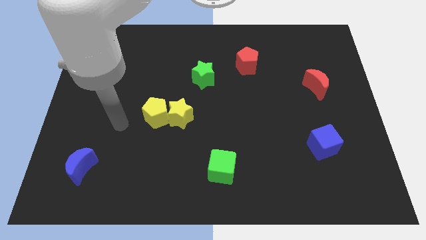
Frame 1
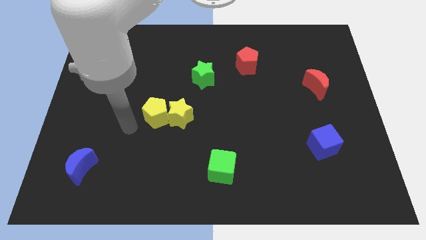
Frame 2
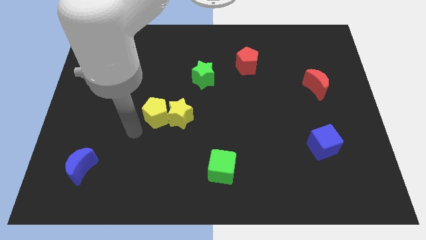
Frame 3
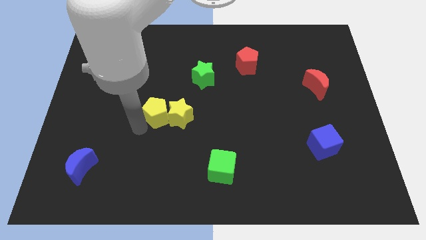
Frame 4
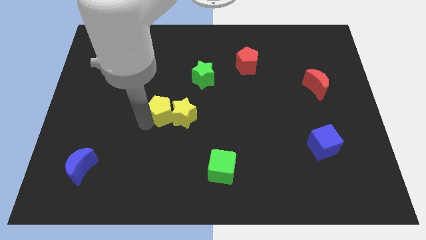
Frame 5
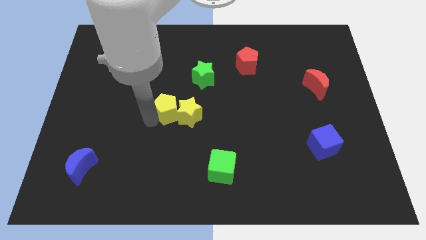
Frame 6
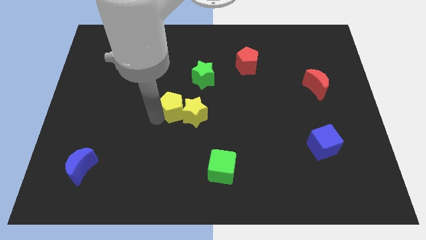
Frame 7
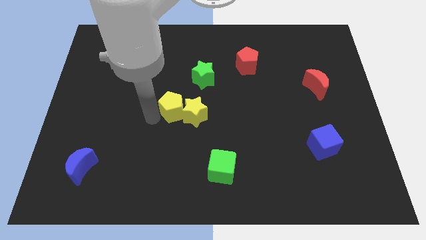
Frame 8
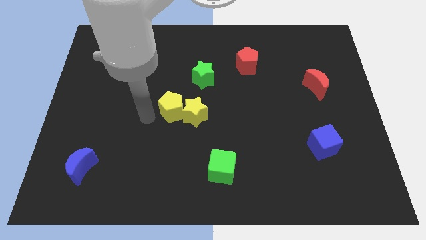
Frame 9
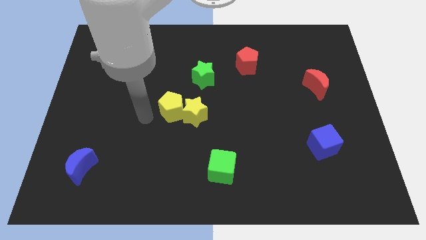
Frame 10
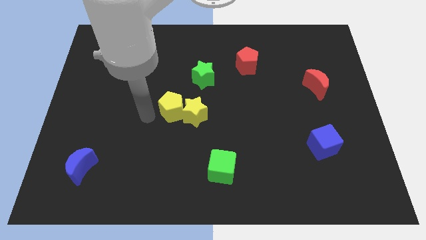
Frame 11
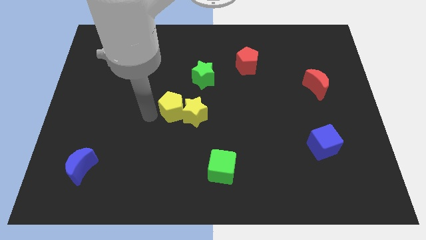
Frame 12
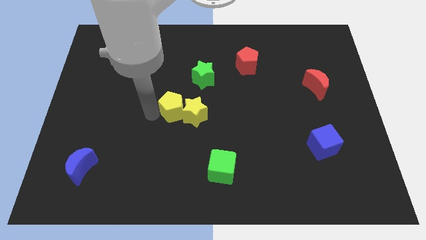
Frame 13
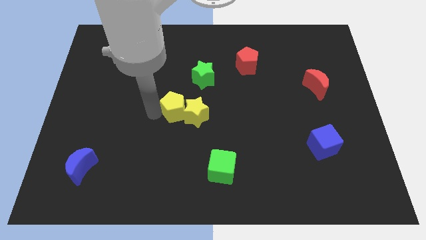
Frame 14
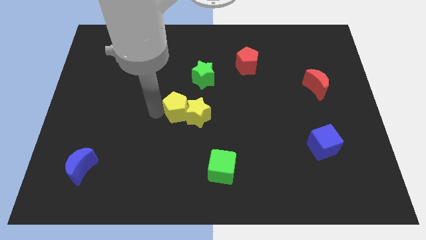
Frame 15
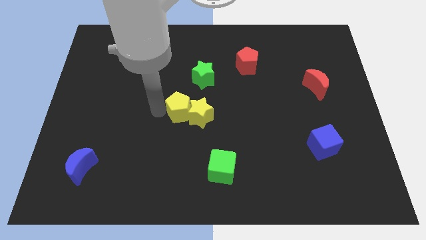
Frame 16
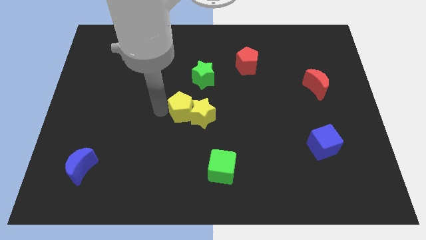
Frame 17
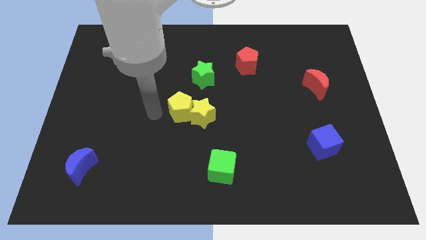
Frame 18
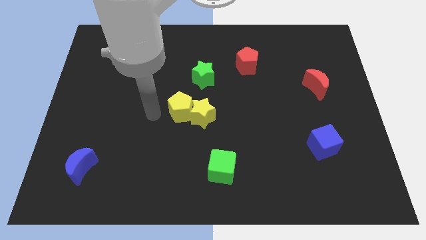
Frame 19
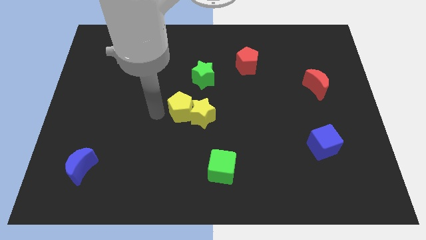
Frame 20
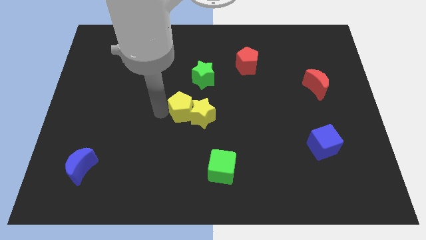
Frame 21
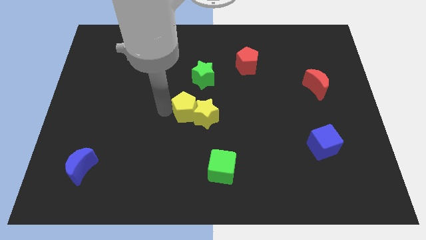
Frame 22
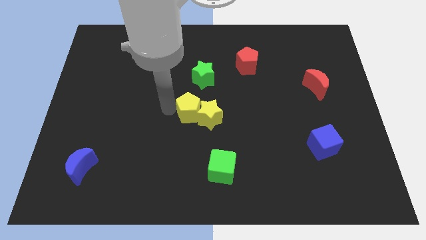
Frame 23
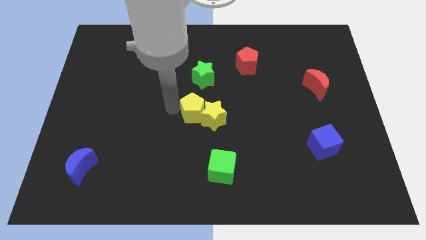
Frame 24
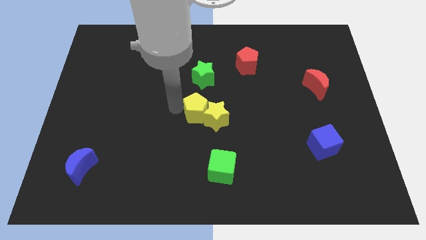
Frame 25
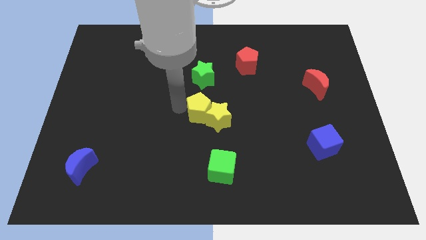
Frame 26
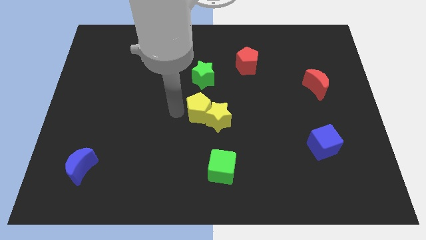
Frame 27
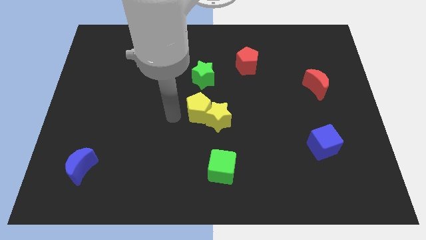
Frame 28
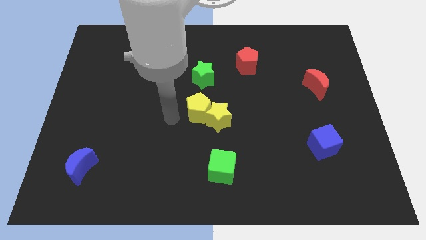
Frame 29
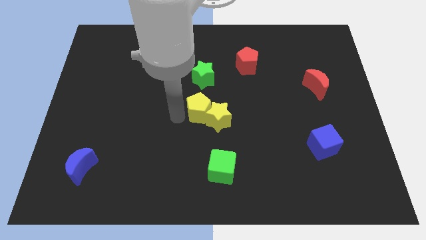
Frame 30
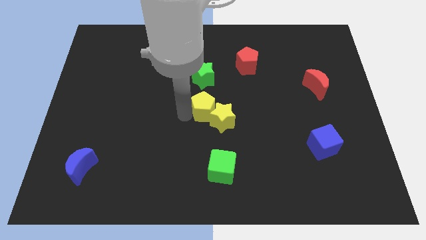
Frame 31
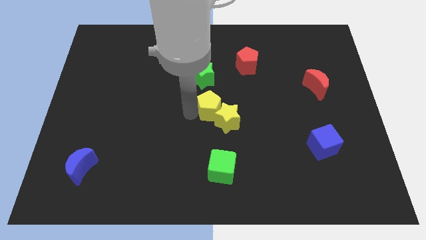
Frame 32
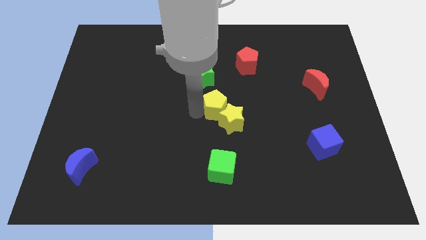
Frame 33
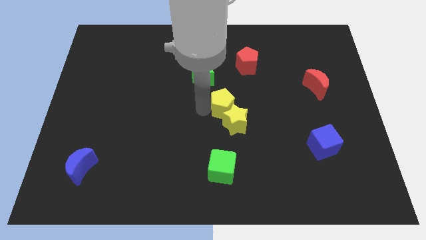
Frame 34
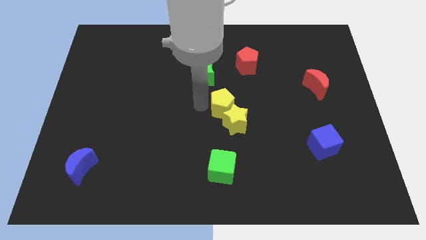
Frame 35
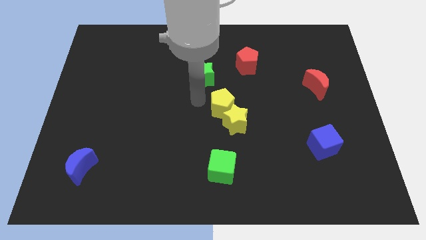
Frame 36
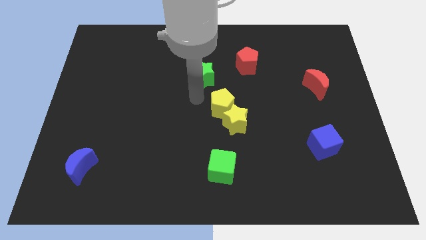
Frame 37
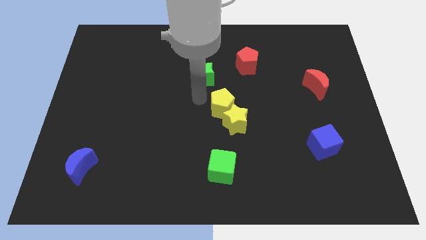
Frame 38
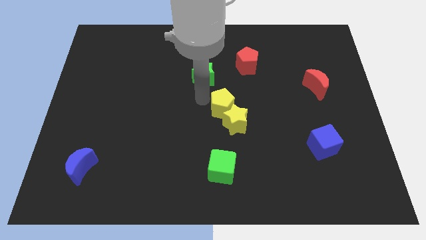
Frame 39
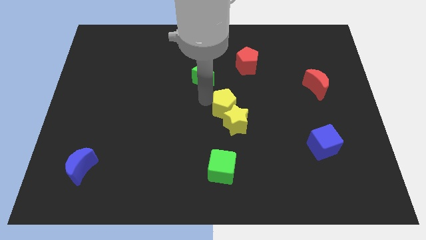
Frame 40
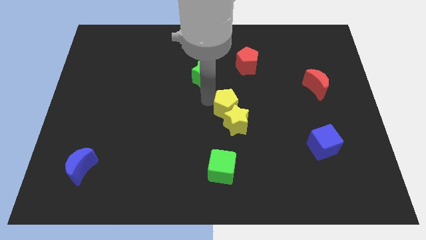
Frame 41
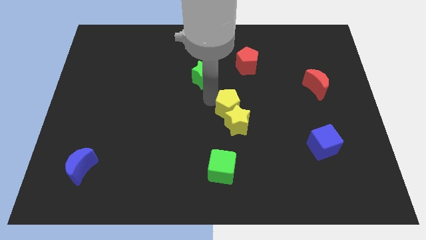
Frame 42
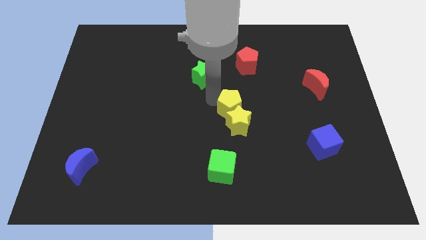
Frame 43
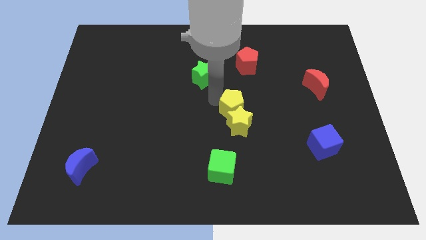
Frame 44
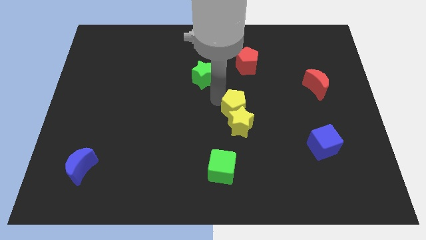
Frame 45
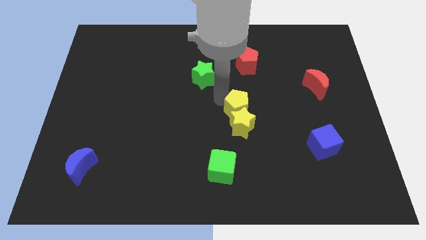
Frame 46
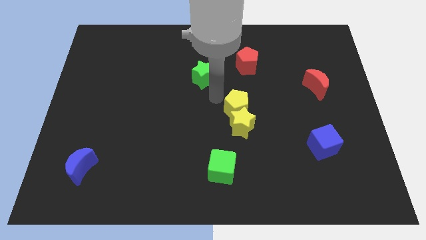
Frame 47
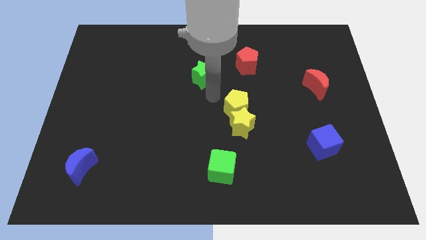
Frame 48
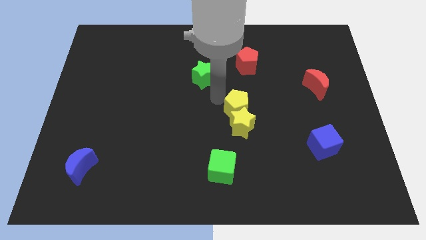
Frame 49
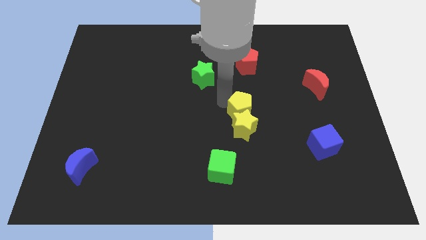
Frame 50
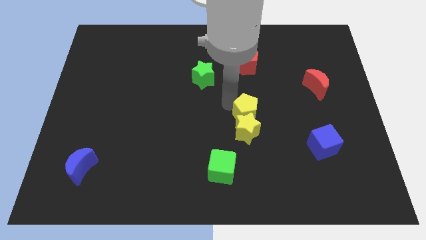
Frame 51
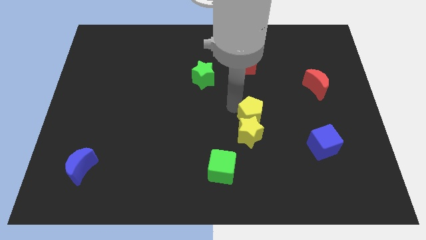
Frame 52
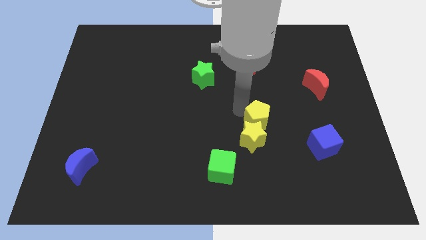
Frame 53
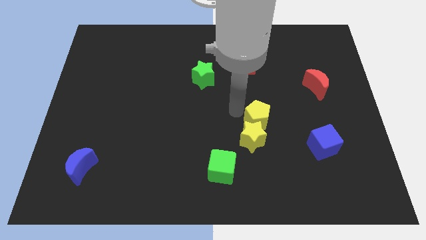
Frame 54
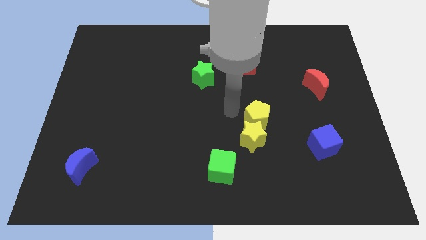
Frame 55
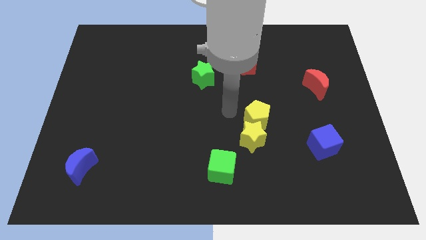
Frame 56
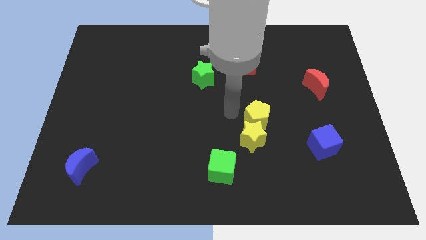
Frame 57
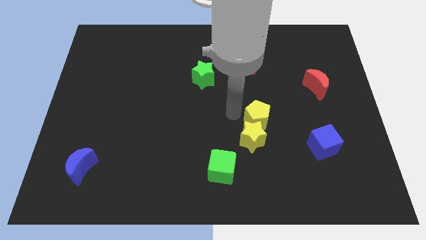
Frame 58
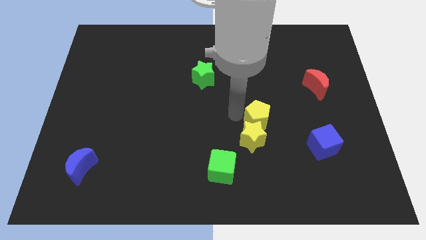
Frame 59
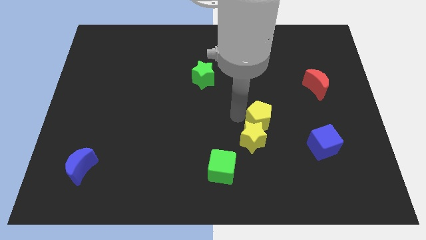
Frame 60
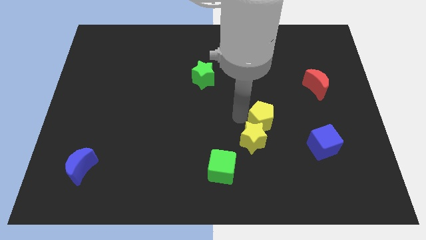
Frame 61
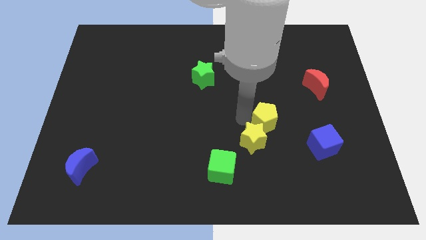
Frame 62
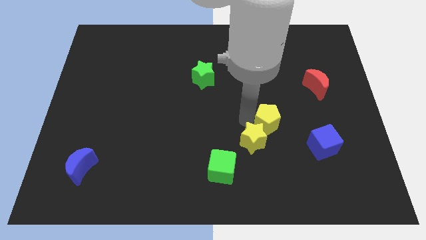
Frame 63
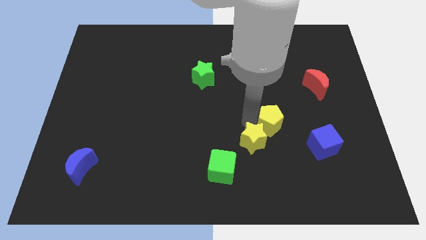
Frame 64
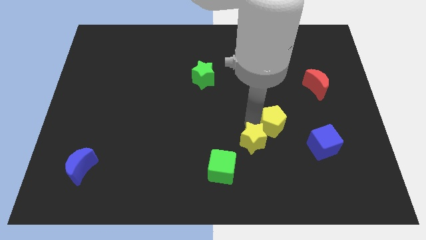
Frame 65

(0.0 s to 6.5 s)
push the yellow pentagon to the top left side of the blue cube

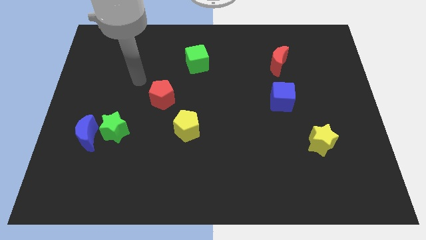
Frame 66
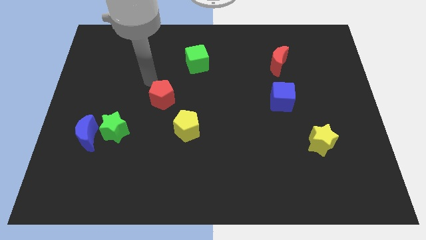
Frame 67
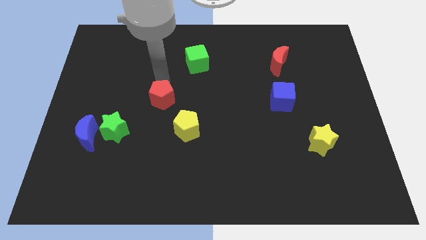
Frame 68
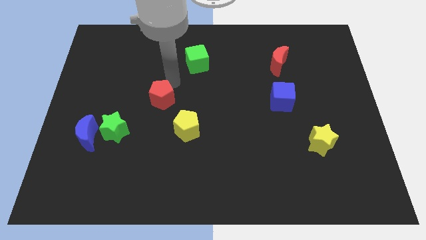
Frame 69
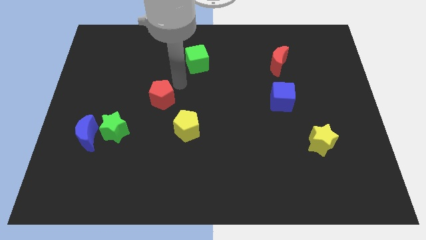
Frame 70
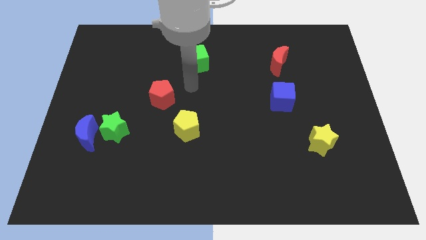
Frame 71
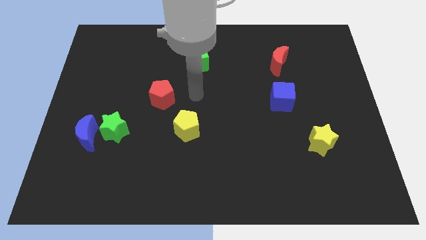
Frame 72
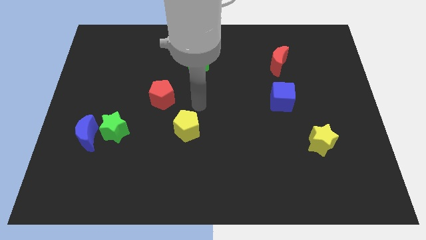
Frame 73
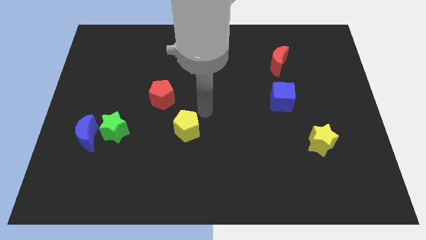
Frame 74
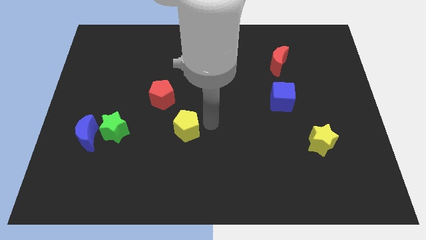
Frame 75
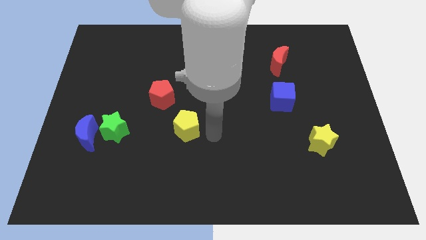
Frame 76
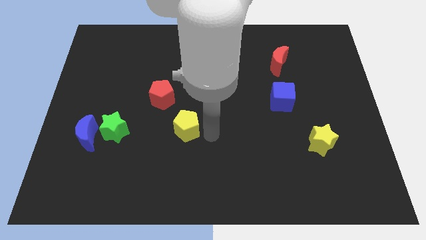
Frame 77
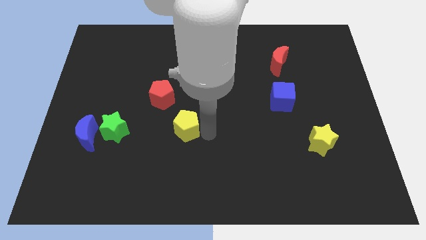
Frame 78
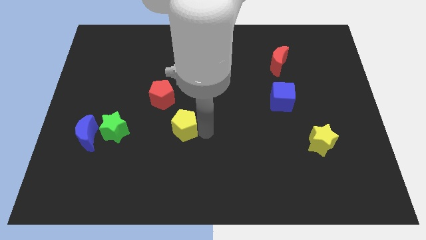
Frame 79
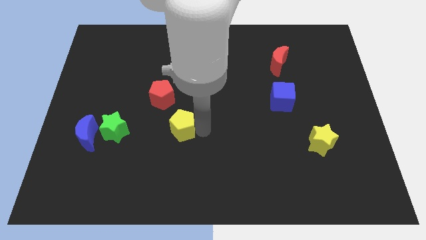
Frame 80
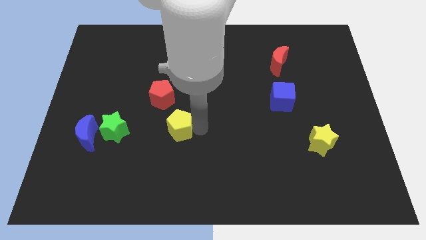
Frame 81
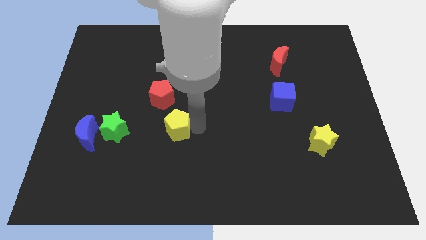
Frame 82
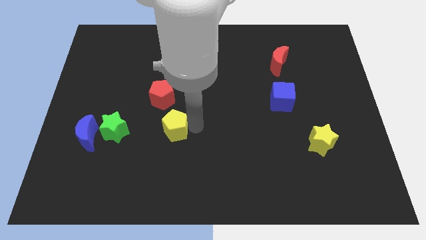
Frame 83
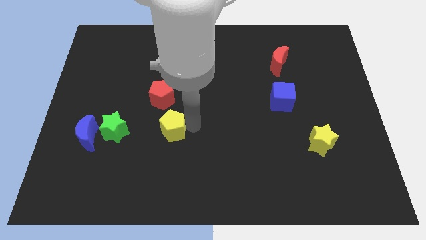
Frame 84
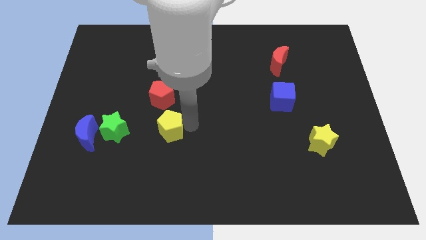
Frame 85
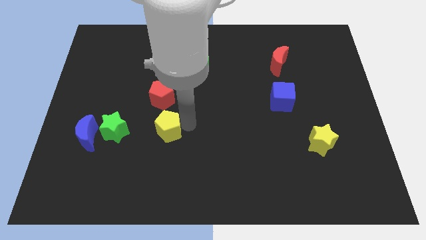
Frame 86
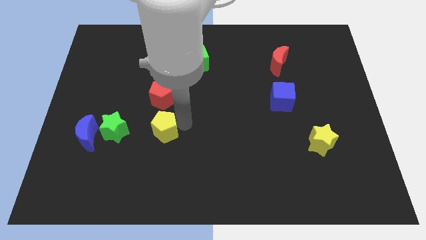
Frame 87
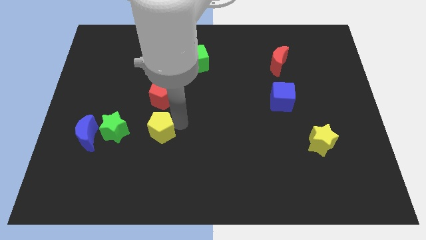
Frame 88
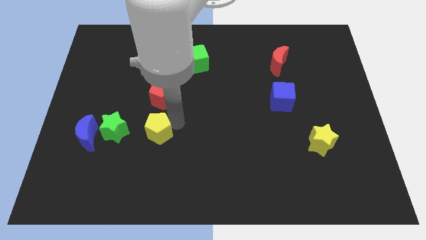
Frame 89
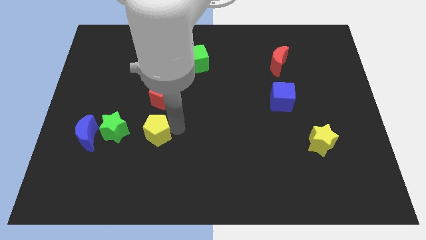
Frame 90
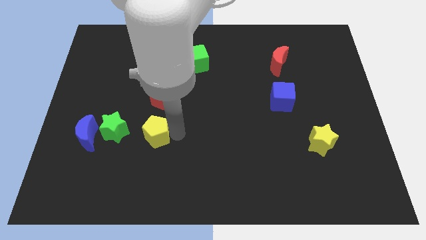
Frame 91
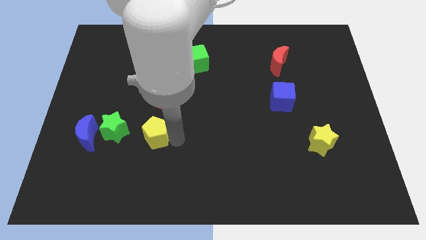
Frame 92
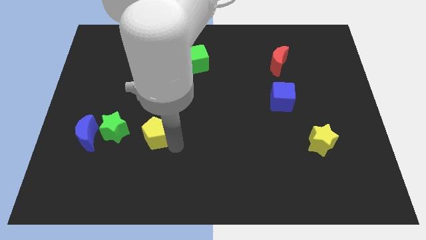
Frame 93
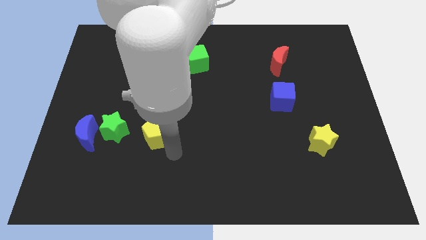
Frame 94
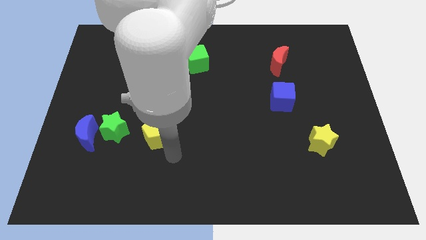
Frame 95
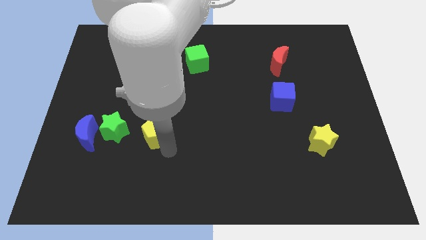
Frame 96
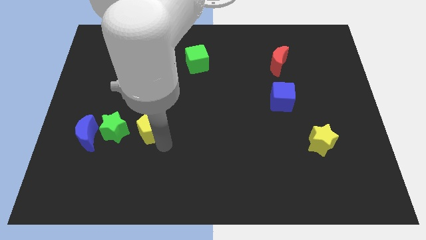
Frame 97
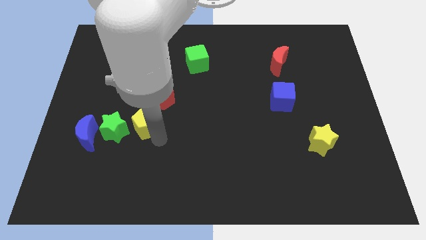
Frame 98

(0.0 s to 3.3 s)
put the yellow pentagon diagonally down and to the left of the red pentagon
